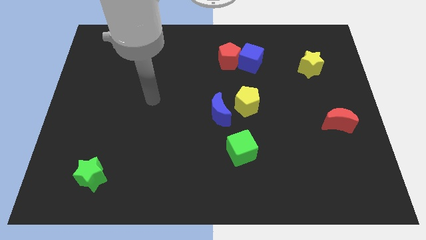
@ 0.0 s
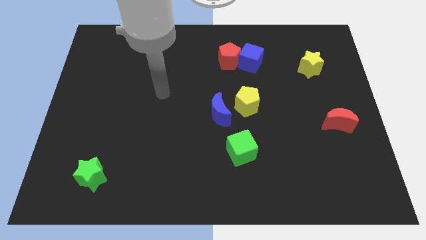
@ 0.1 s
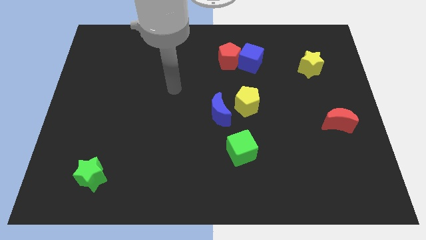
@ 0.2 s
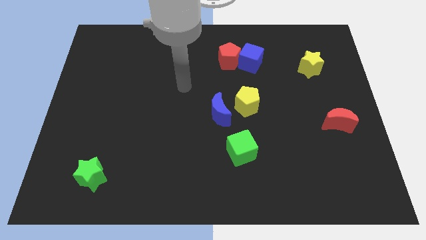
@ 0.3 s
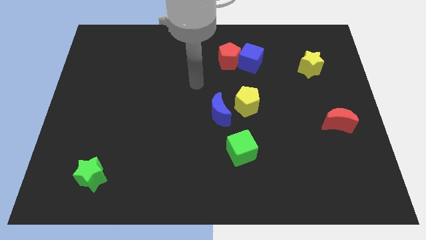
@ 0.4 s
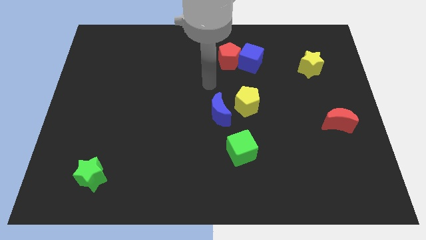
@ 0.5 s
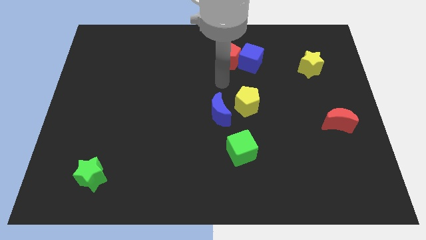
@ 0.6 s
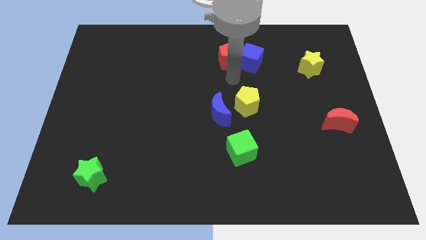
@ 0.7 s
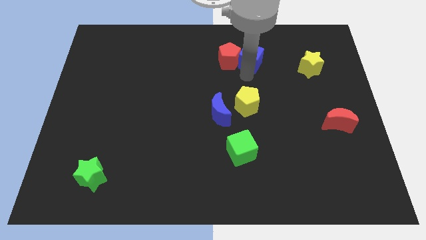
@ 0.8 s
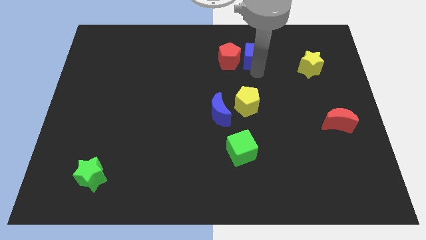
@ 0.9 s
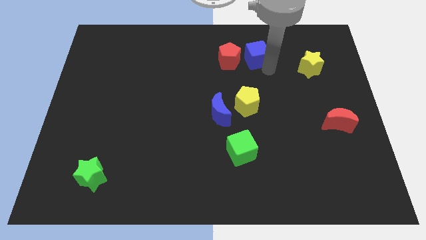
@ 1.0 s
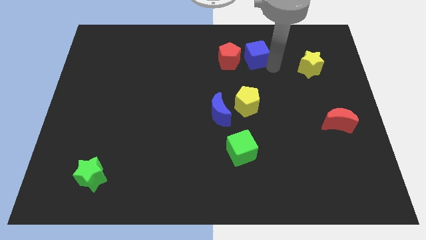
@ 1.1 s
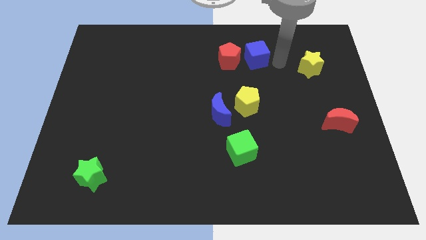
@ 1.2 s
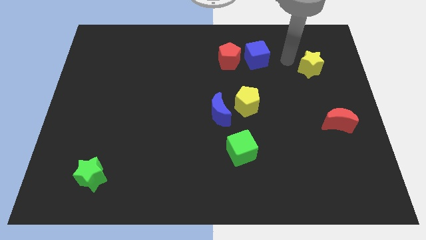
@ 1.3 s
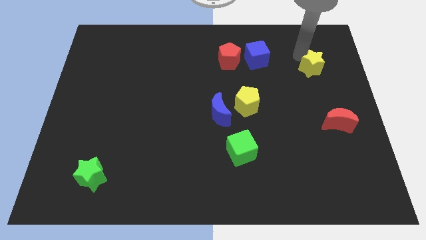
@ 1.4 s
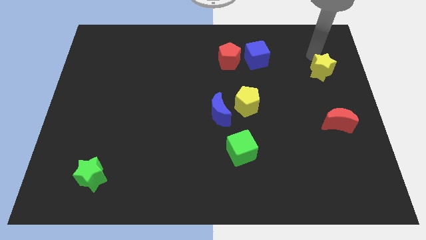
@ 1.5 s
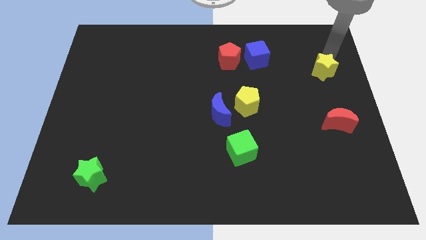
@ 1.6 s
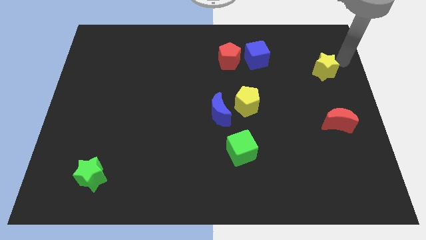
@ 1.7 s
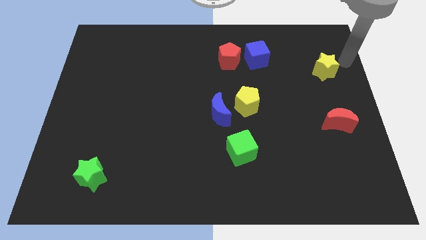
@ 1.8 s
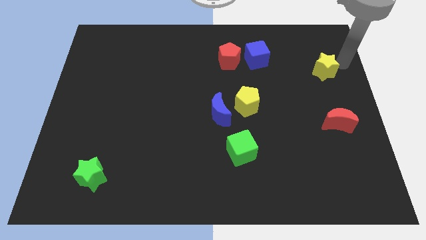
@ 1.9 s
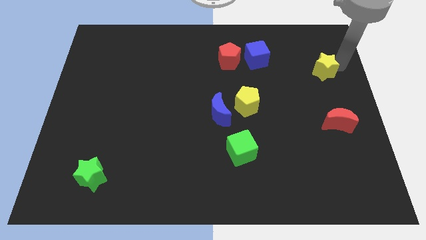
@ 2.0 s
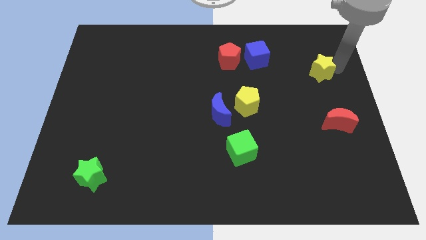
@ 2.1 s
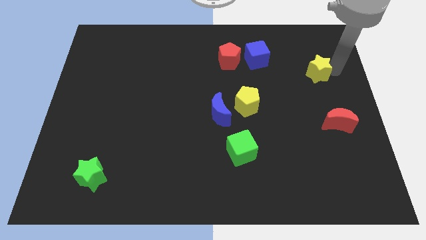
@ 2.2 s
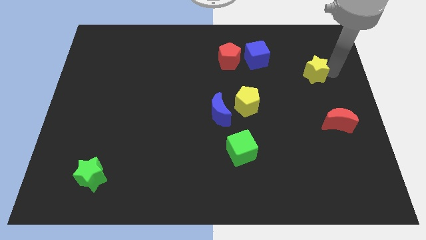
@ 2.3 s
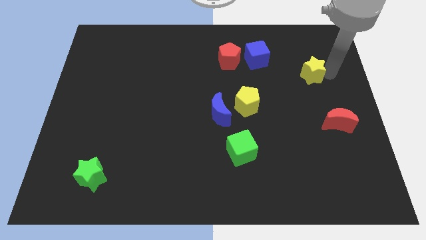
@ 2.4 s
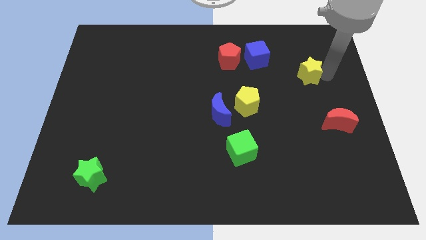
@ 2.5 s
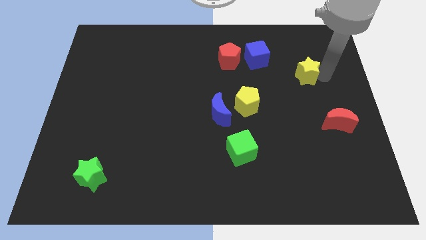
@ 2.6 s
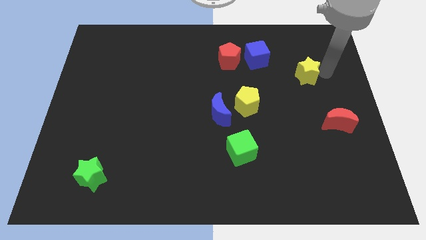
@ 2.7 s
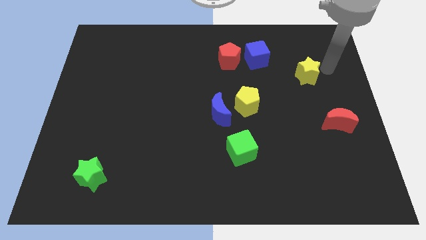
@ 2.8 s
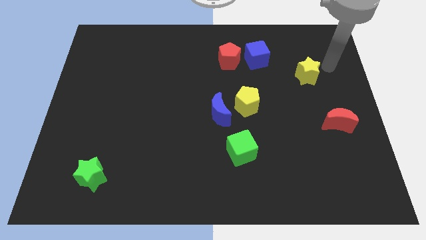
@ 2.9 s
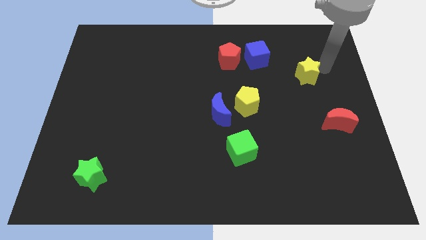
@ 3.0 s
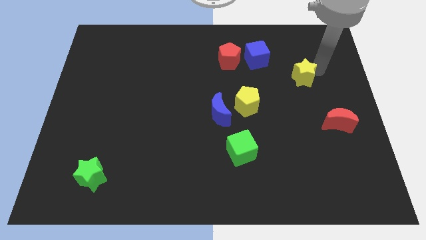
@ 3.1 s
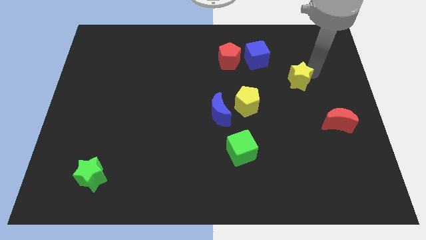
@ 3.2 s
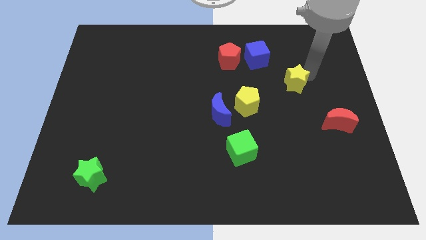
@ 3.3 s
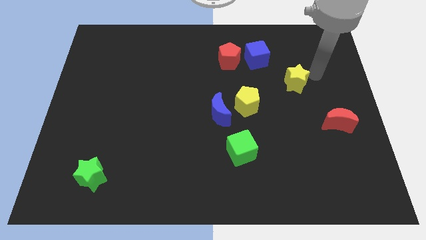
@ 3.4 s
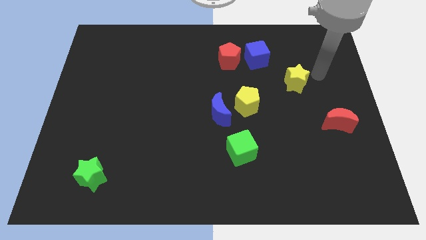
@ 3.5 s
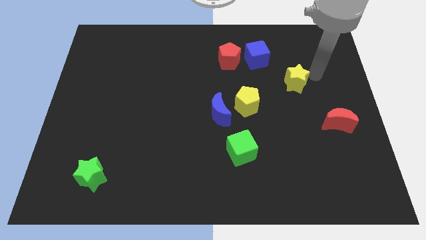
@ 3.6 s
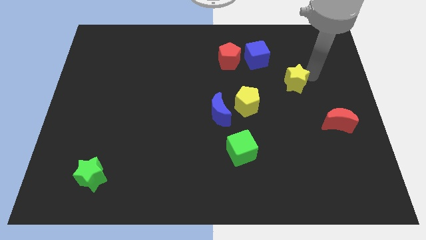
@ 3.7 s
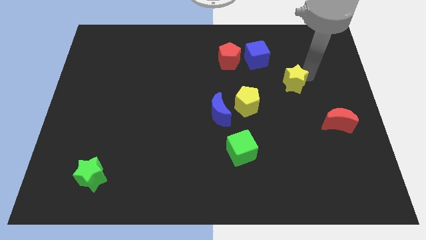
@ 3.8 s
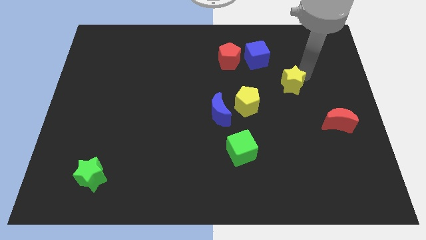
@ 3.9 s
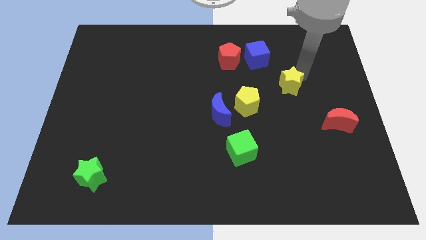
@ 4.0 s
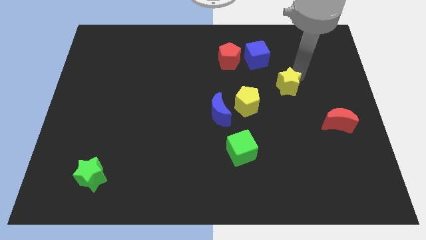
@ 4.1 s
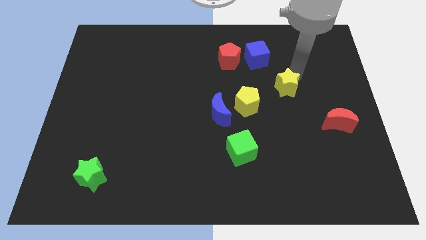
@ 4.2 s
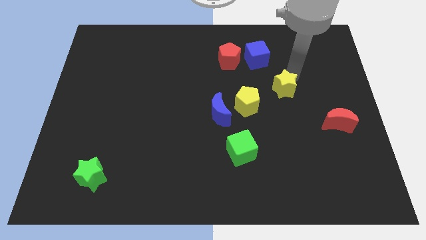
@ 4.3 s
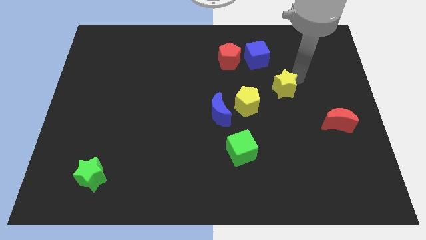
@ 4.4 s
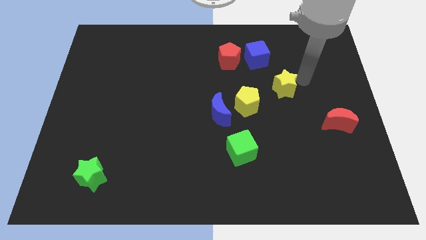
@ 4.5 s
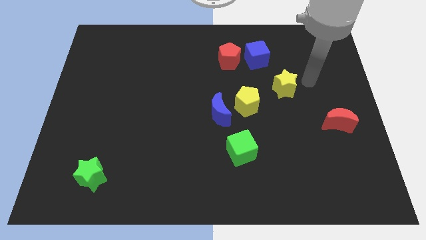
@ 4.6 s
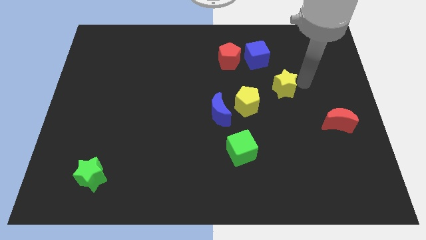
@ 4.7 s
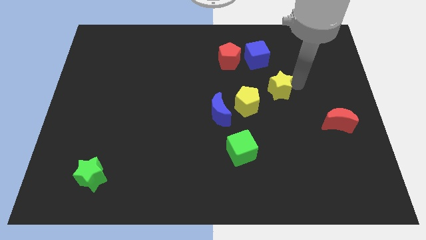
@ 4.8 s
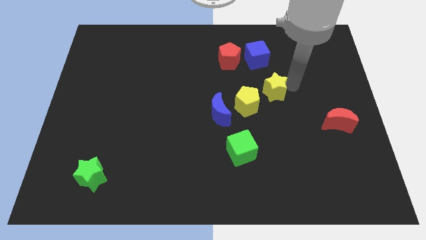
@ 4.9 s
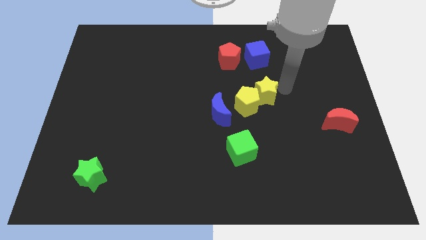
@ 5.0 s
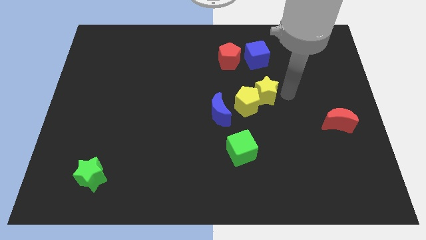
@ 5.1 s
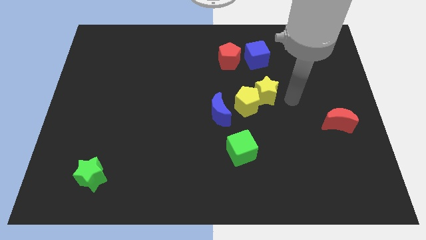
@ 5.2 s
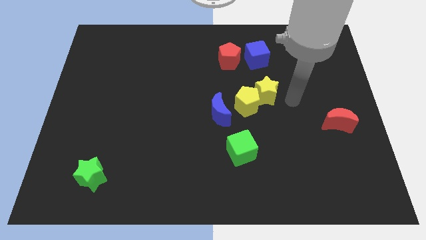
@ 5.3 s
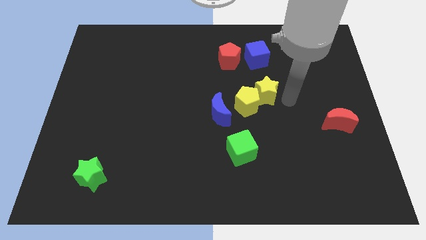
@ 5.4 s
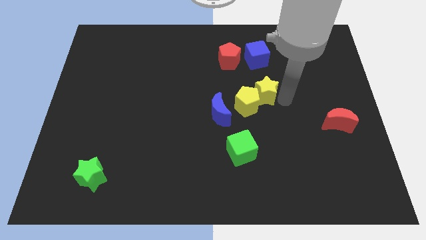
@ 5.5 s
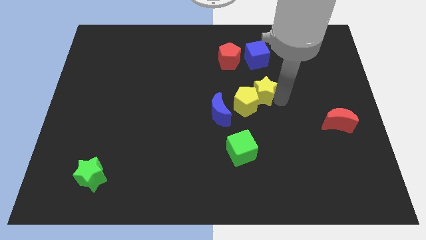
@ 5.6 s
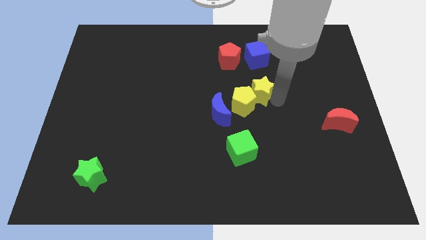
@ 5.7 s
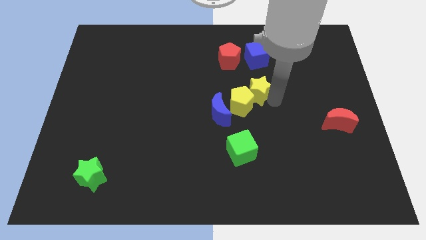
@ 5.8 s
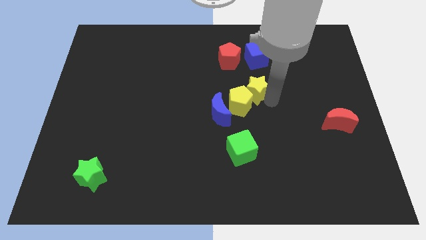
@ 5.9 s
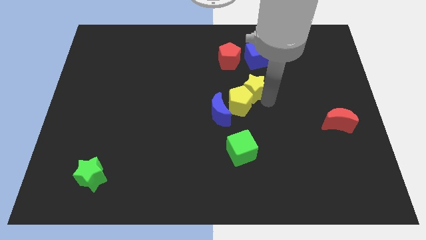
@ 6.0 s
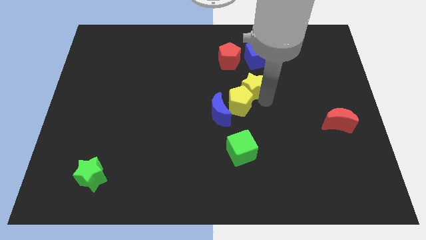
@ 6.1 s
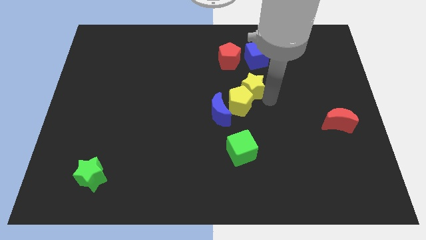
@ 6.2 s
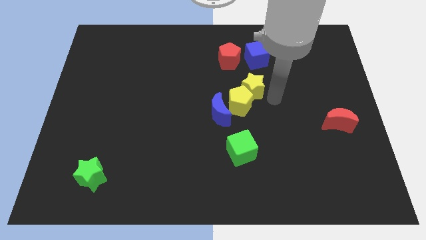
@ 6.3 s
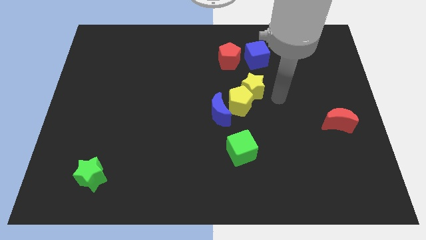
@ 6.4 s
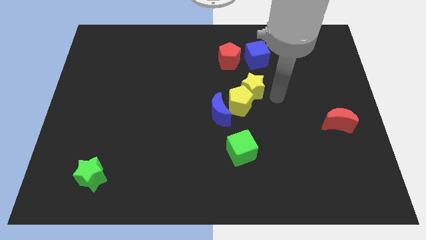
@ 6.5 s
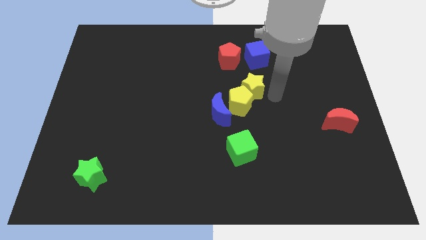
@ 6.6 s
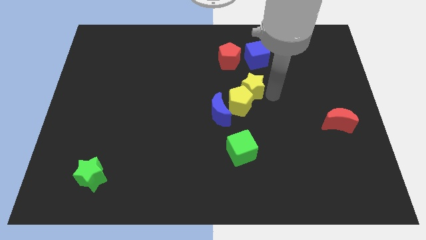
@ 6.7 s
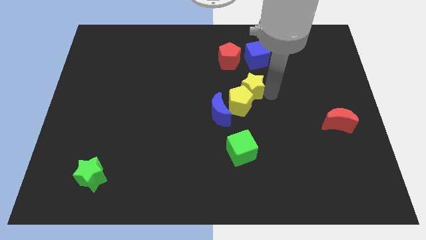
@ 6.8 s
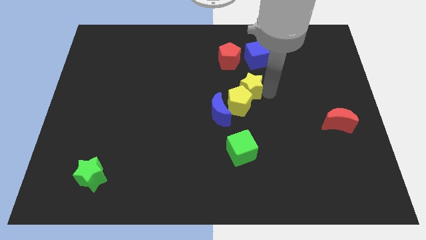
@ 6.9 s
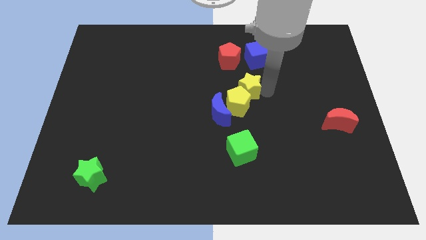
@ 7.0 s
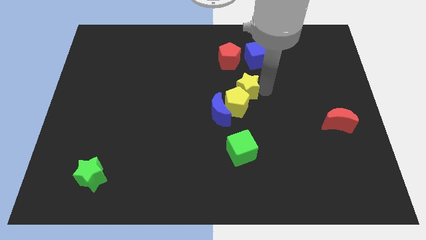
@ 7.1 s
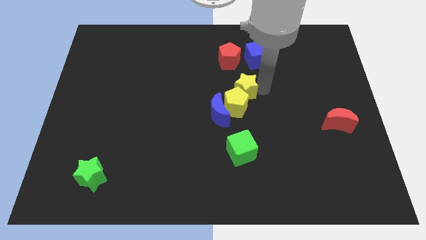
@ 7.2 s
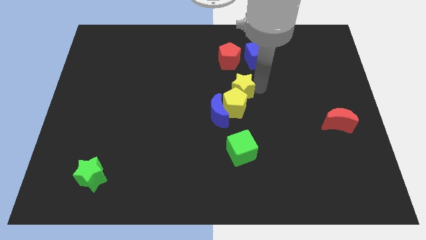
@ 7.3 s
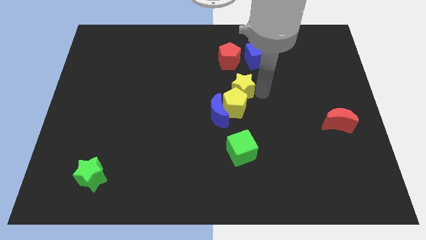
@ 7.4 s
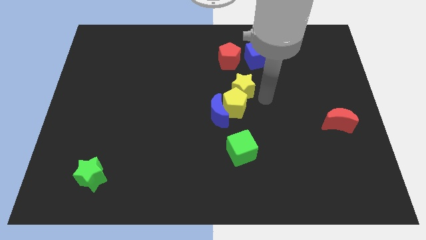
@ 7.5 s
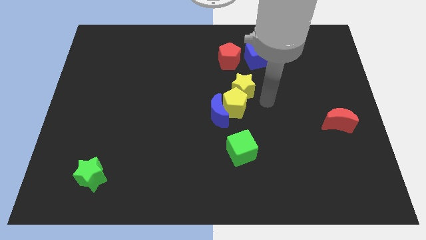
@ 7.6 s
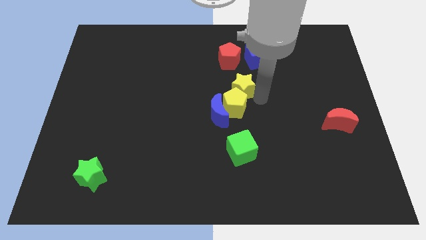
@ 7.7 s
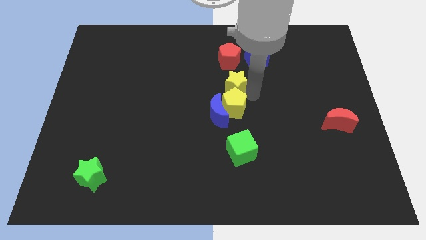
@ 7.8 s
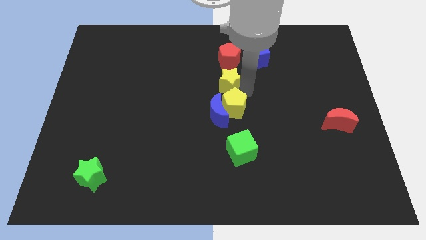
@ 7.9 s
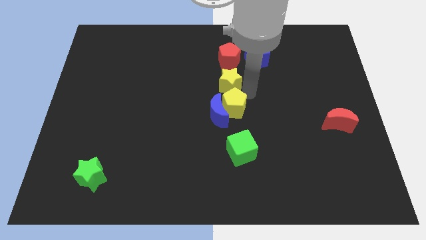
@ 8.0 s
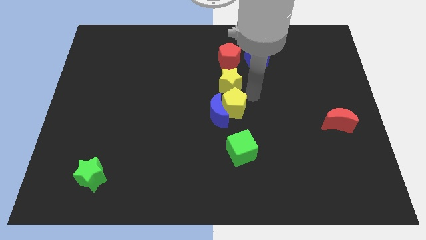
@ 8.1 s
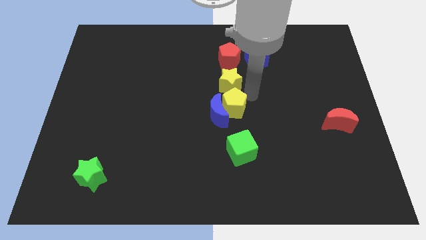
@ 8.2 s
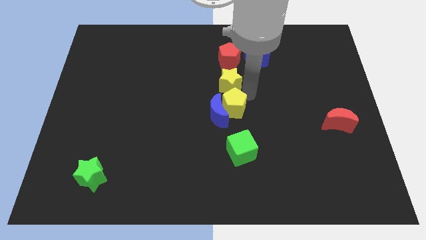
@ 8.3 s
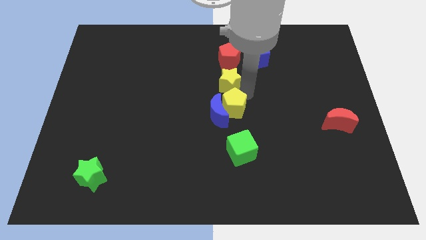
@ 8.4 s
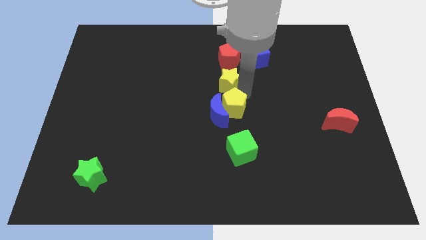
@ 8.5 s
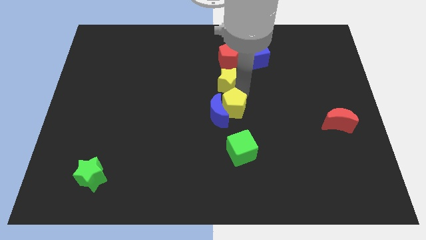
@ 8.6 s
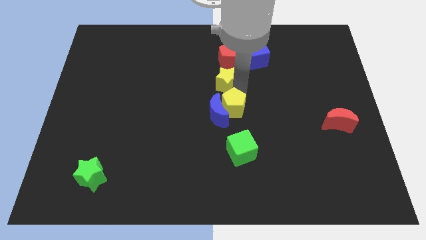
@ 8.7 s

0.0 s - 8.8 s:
move the yellow star left
